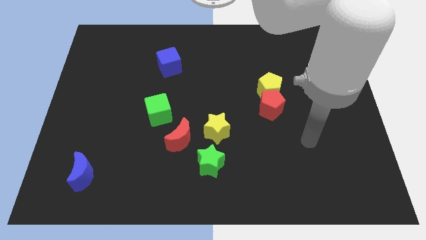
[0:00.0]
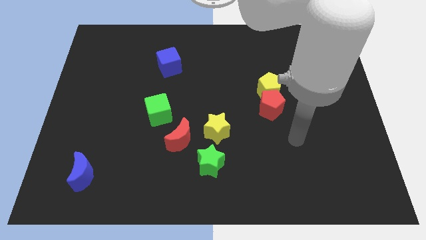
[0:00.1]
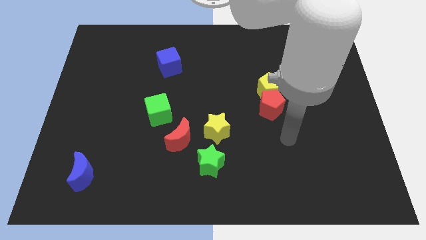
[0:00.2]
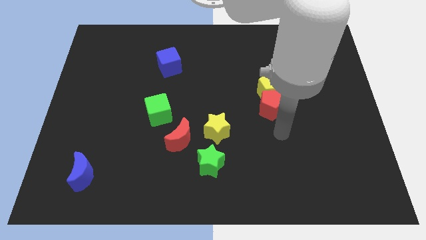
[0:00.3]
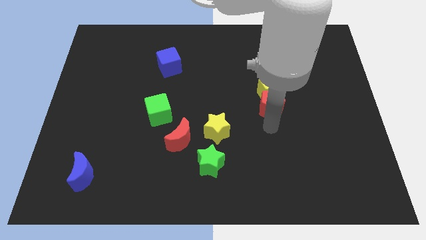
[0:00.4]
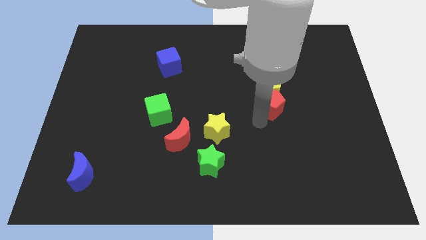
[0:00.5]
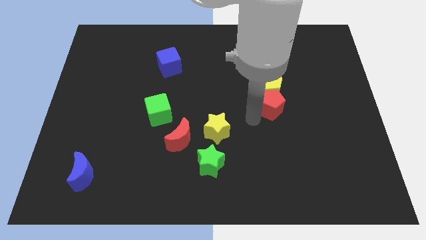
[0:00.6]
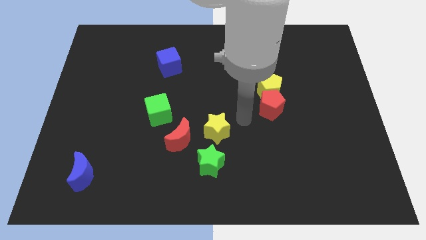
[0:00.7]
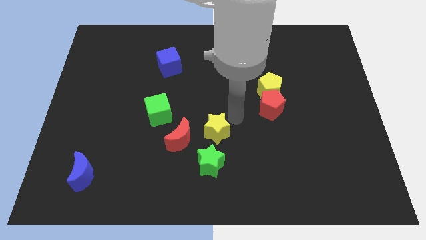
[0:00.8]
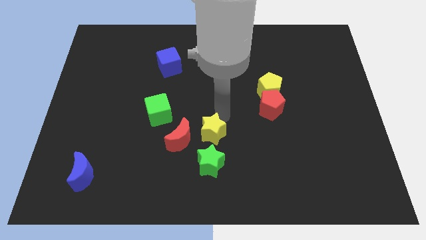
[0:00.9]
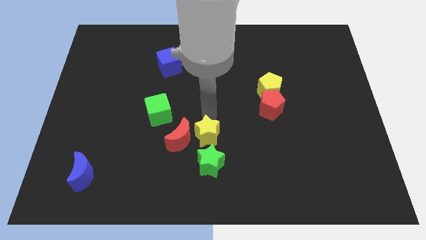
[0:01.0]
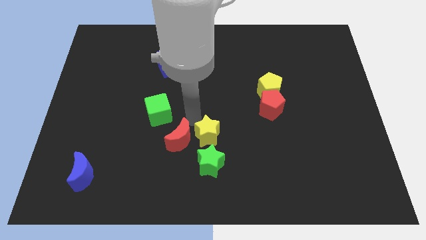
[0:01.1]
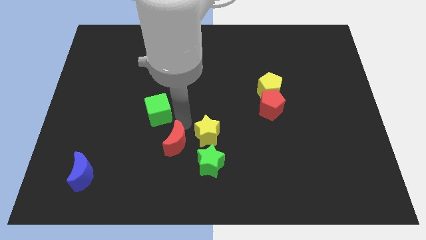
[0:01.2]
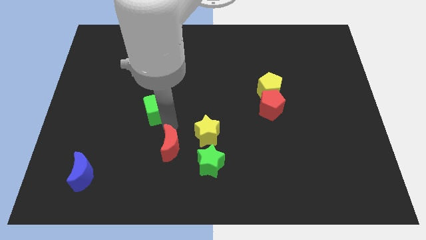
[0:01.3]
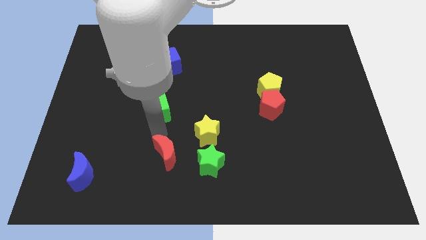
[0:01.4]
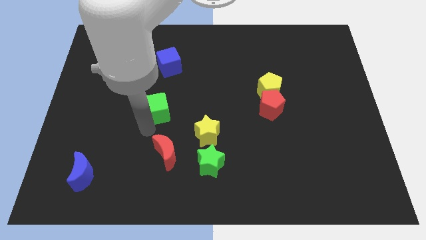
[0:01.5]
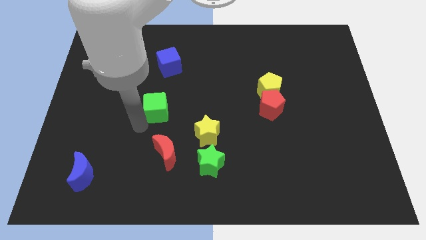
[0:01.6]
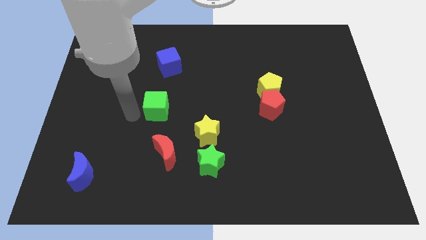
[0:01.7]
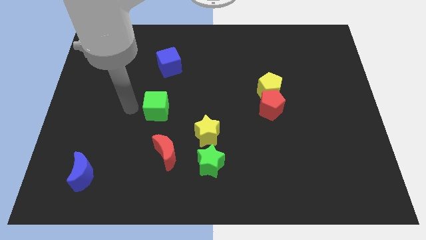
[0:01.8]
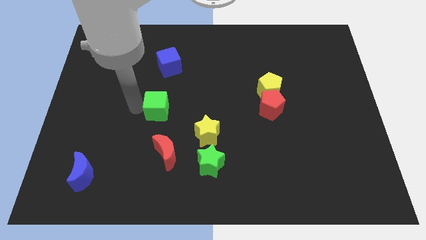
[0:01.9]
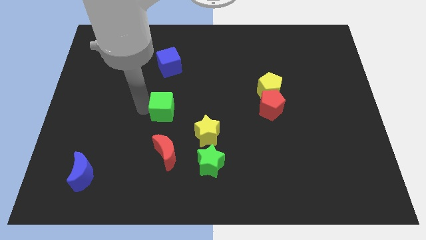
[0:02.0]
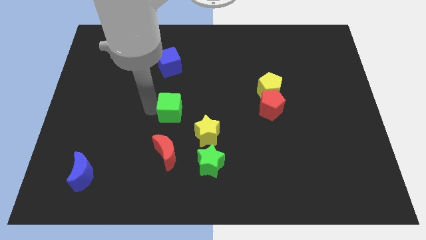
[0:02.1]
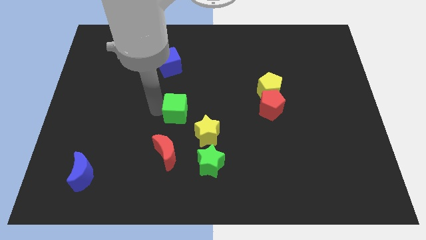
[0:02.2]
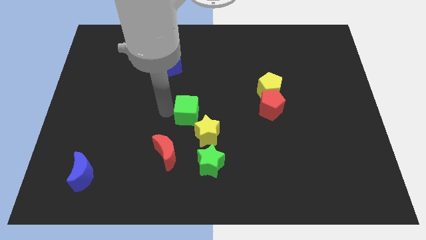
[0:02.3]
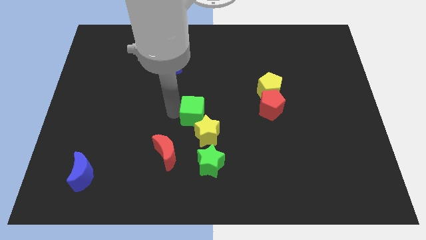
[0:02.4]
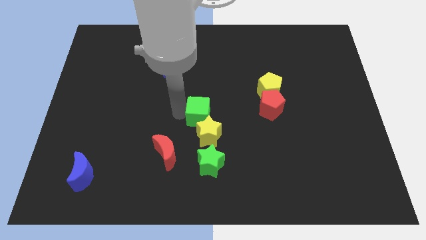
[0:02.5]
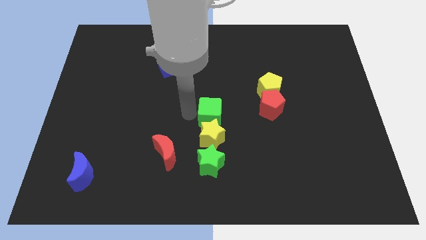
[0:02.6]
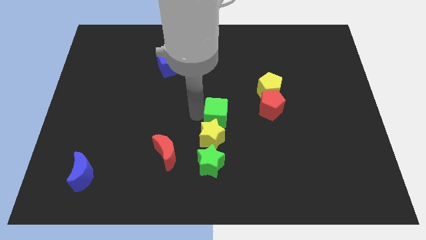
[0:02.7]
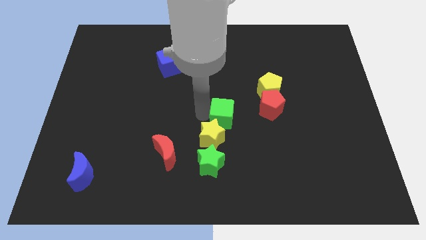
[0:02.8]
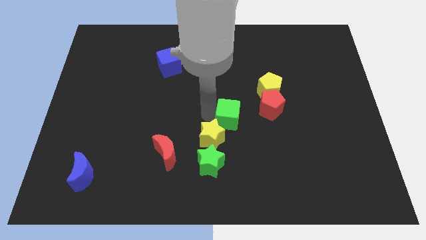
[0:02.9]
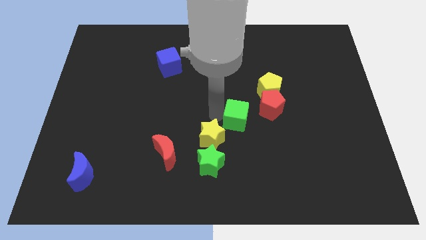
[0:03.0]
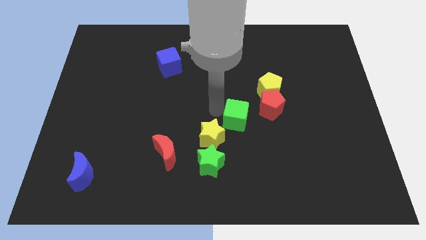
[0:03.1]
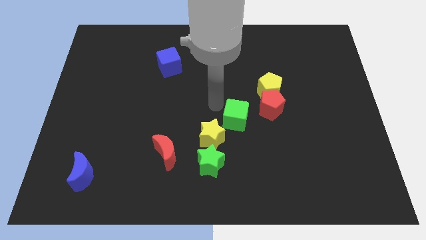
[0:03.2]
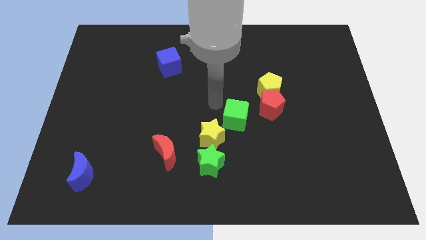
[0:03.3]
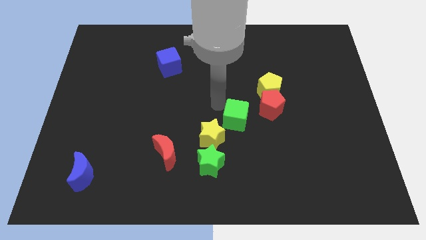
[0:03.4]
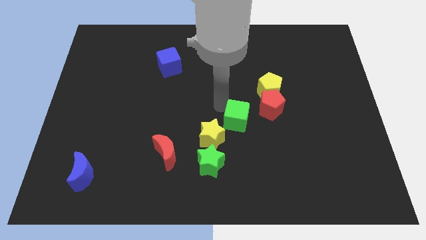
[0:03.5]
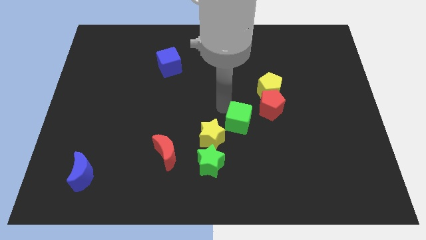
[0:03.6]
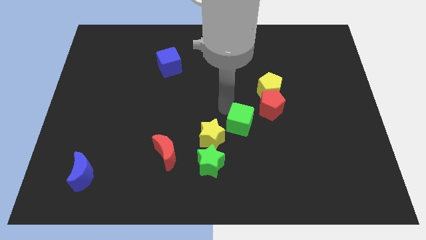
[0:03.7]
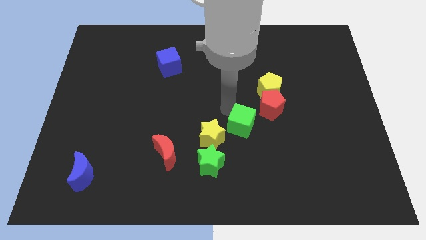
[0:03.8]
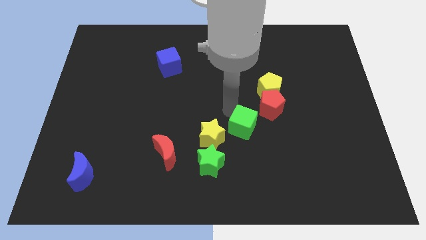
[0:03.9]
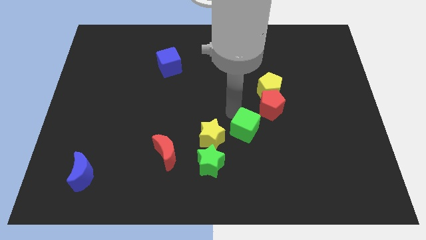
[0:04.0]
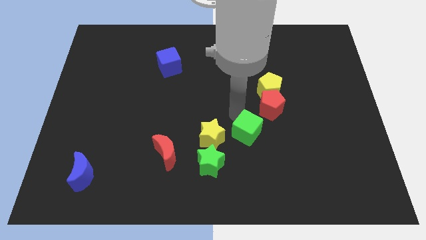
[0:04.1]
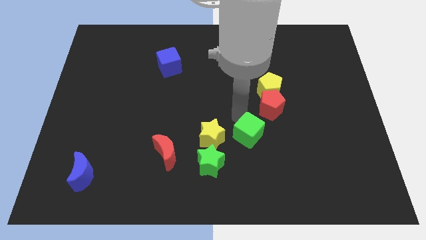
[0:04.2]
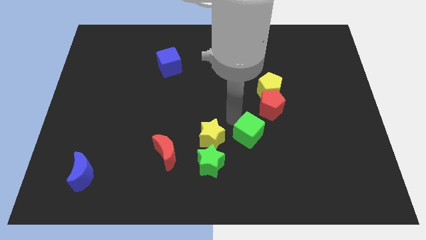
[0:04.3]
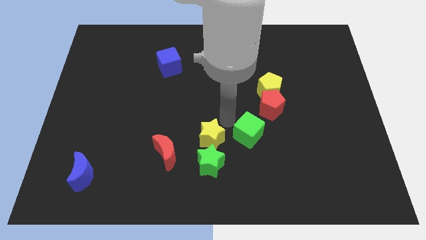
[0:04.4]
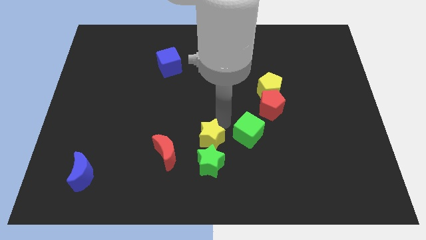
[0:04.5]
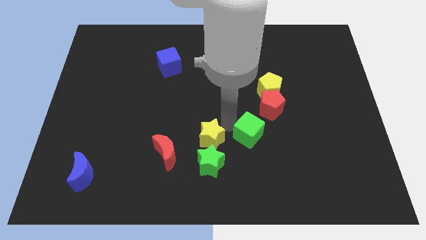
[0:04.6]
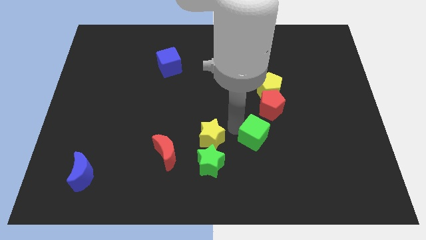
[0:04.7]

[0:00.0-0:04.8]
push the green cube below the red pentagon

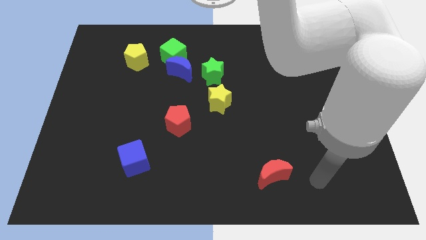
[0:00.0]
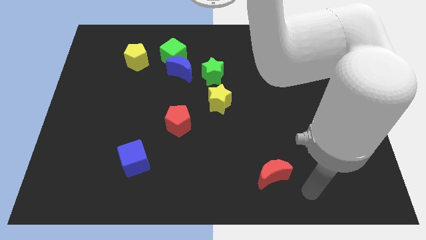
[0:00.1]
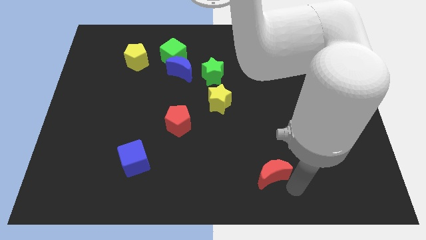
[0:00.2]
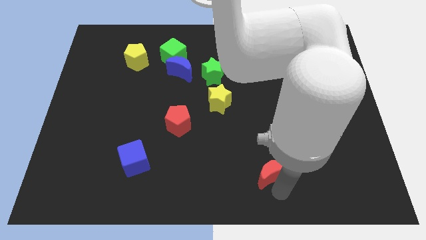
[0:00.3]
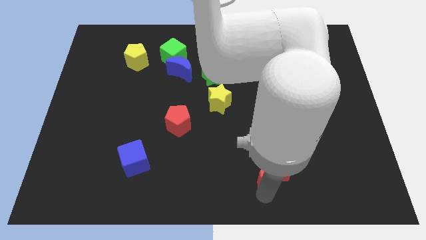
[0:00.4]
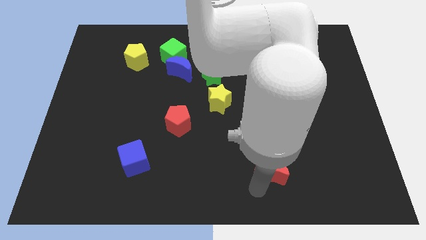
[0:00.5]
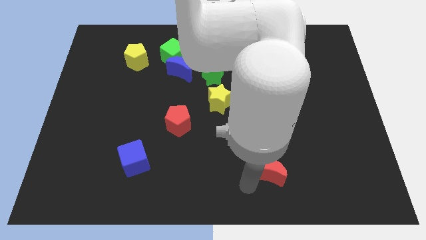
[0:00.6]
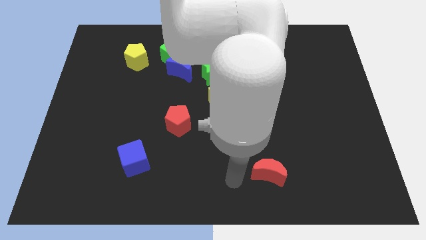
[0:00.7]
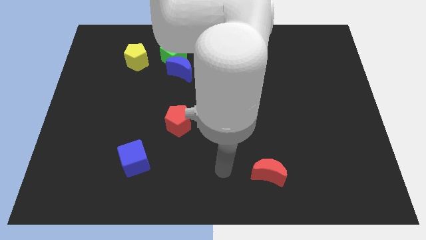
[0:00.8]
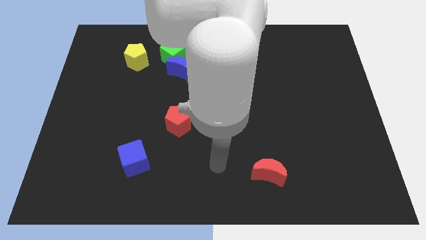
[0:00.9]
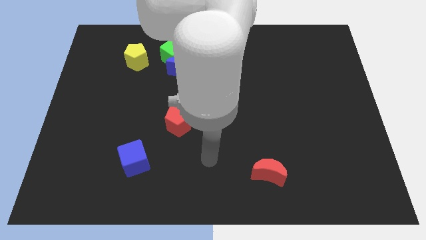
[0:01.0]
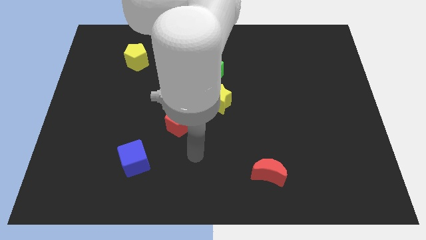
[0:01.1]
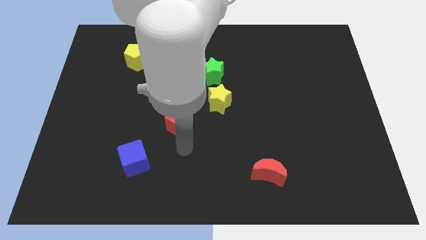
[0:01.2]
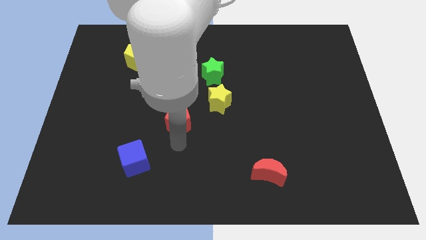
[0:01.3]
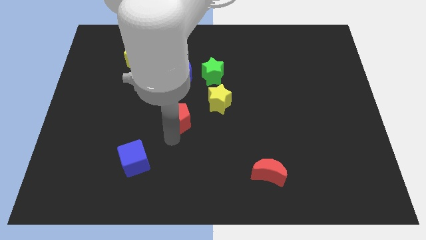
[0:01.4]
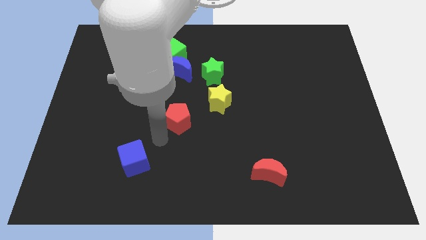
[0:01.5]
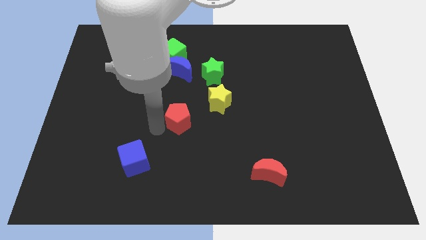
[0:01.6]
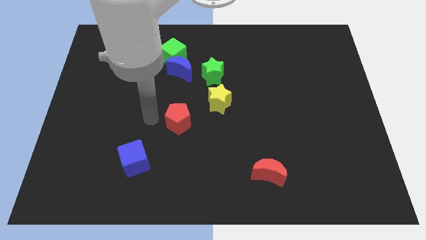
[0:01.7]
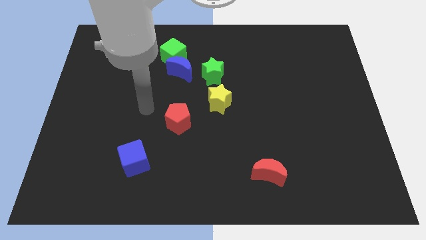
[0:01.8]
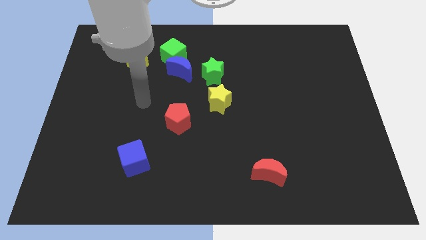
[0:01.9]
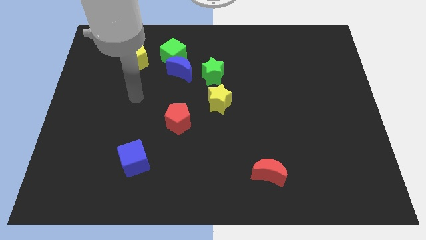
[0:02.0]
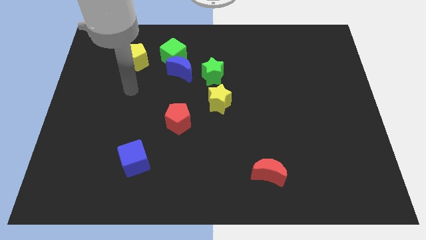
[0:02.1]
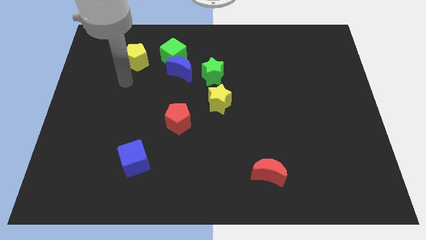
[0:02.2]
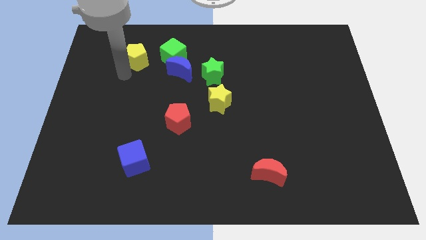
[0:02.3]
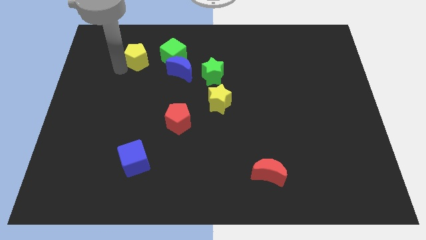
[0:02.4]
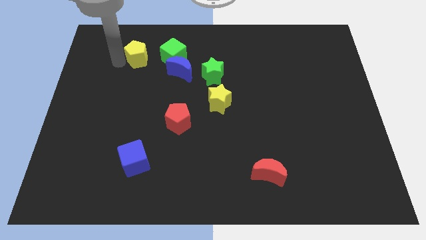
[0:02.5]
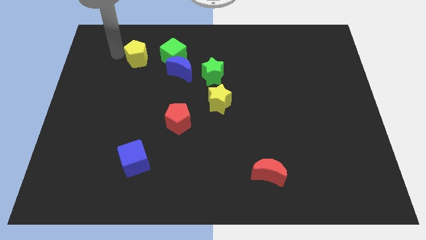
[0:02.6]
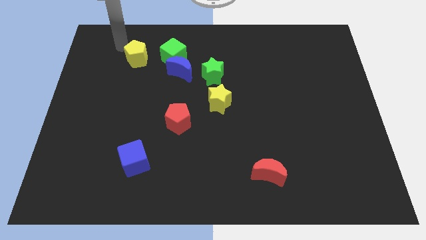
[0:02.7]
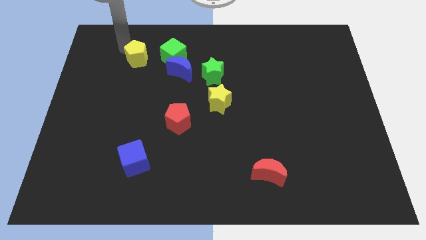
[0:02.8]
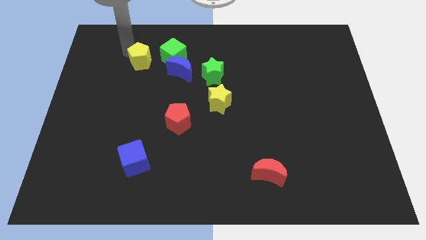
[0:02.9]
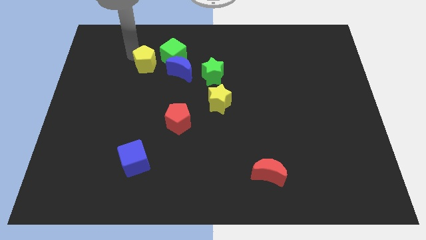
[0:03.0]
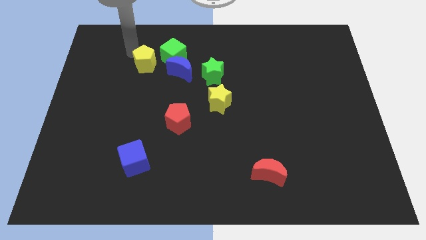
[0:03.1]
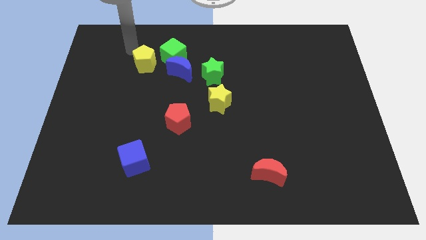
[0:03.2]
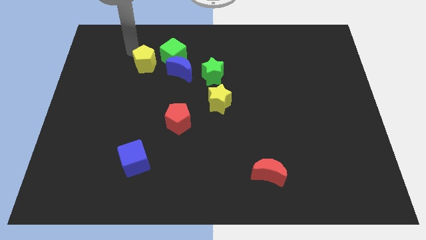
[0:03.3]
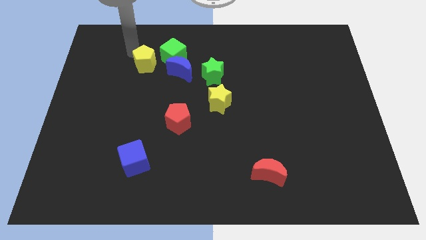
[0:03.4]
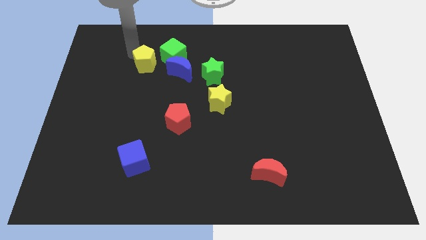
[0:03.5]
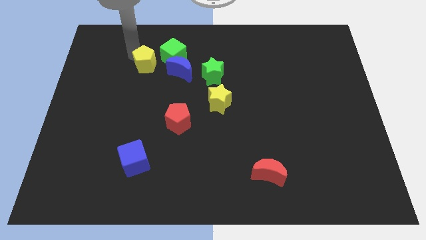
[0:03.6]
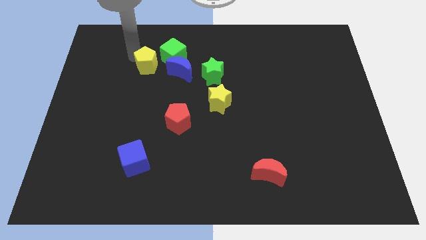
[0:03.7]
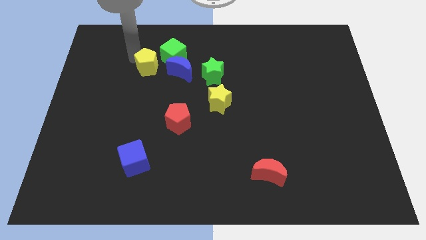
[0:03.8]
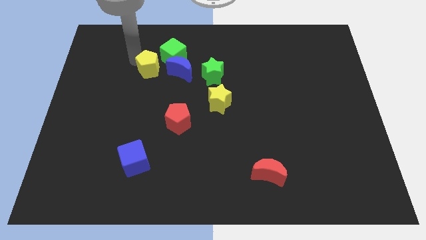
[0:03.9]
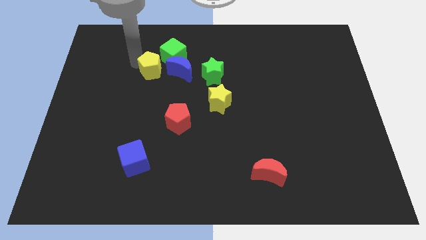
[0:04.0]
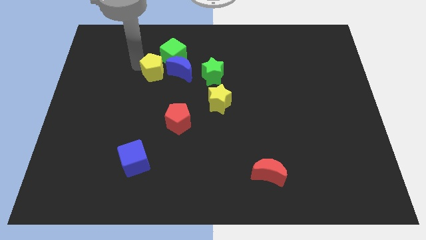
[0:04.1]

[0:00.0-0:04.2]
move the yellow pentagon to the bottom side of the green cube
